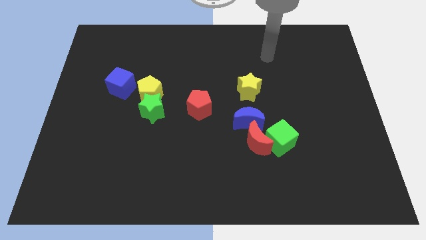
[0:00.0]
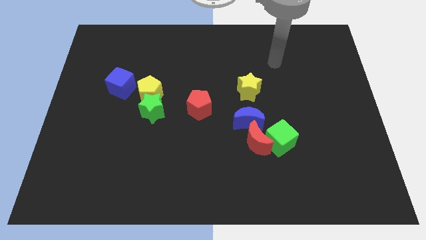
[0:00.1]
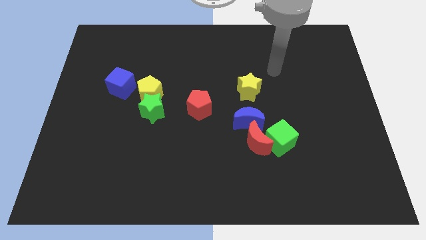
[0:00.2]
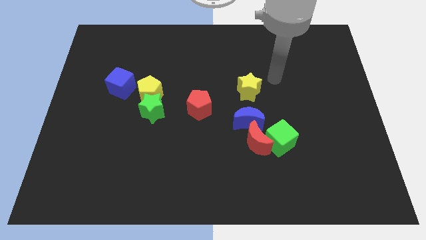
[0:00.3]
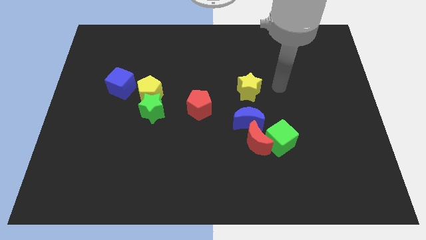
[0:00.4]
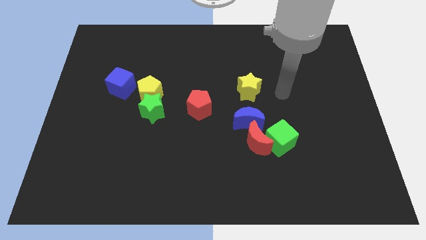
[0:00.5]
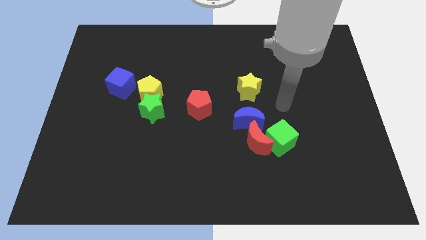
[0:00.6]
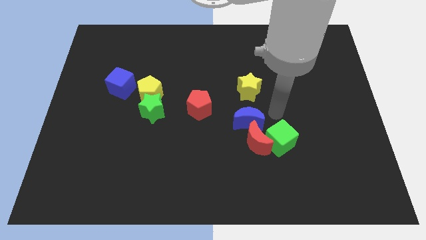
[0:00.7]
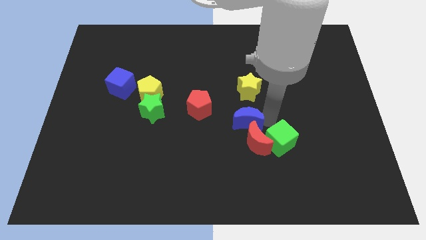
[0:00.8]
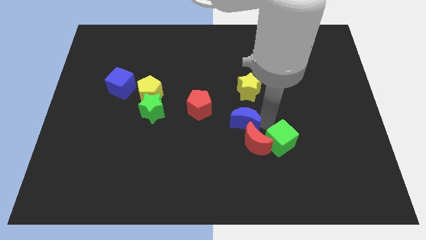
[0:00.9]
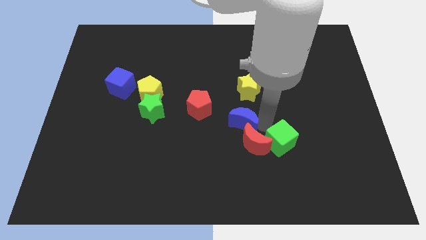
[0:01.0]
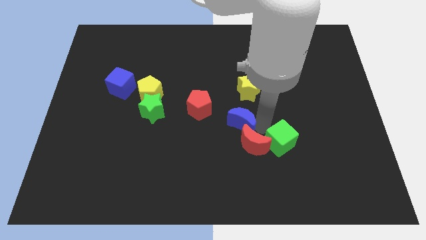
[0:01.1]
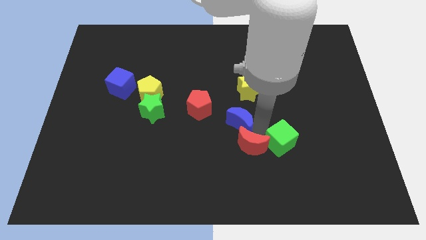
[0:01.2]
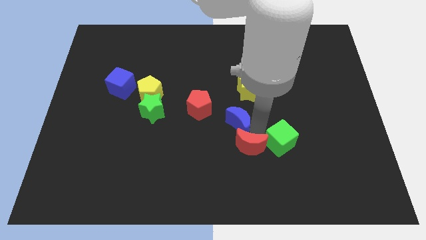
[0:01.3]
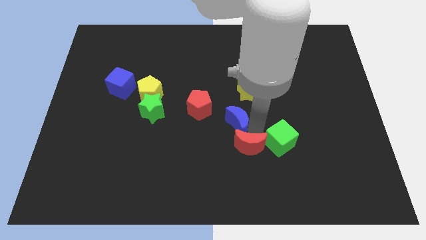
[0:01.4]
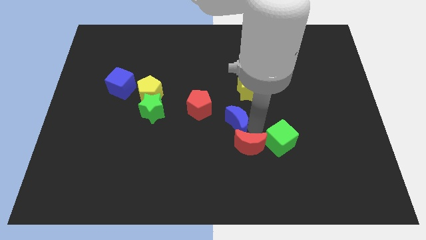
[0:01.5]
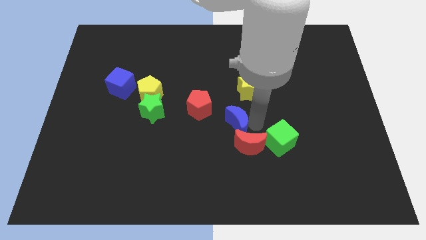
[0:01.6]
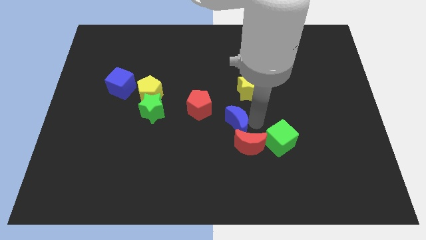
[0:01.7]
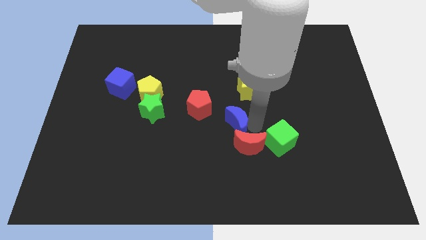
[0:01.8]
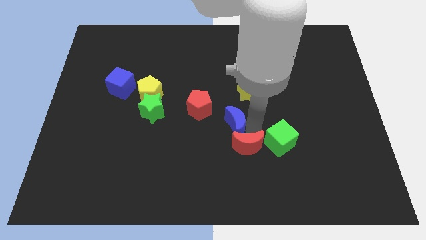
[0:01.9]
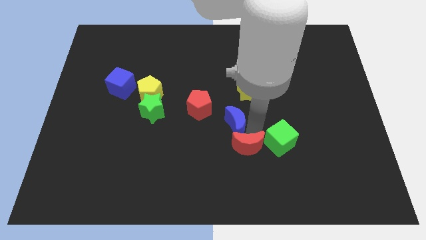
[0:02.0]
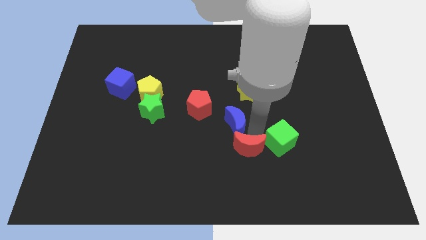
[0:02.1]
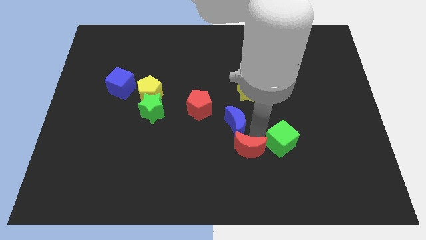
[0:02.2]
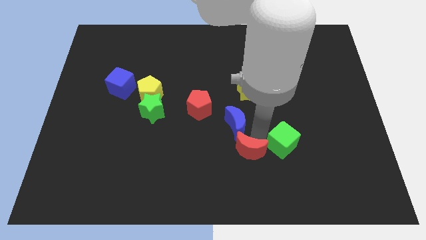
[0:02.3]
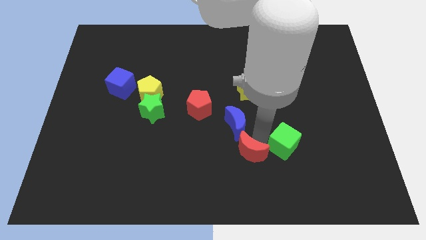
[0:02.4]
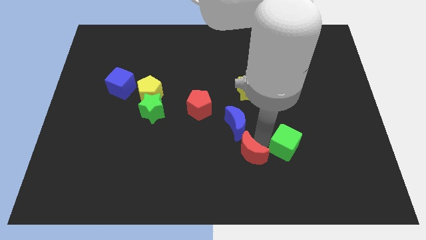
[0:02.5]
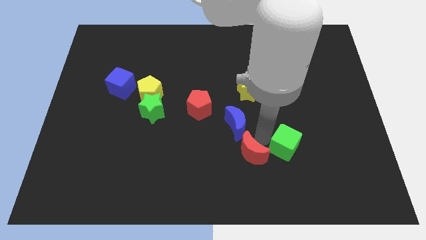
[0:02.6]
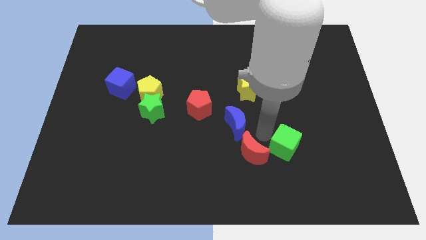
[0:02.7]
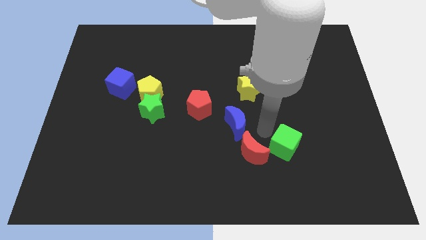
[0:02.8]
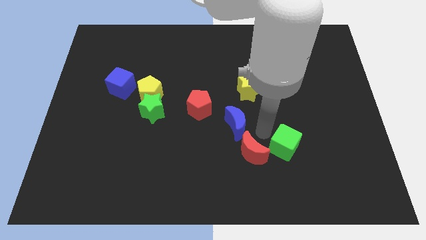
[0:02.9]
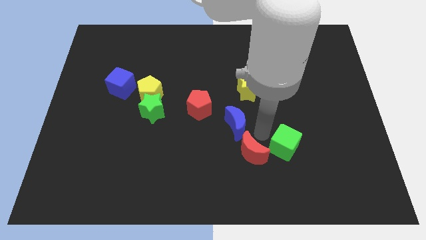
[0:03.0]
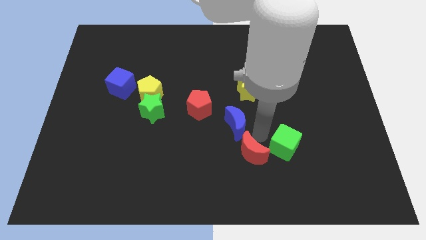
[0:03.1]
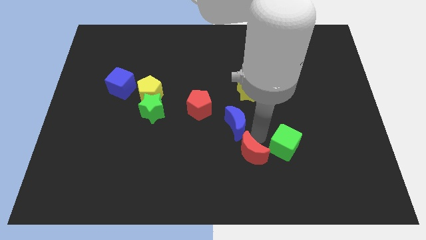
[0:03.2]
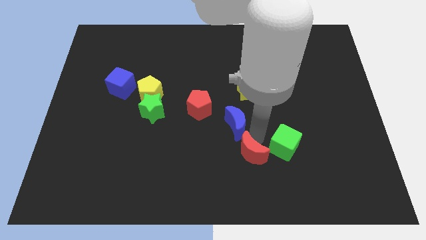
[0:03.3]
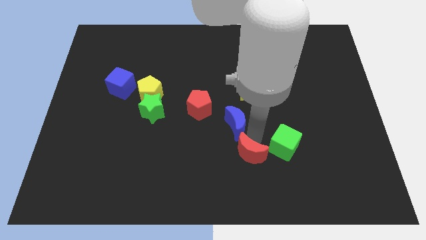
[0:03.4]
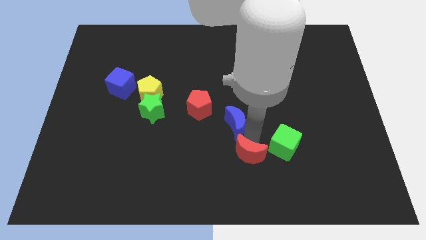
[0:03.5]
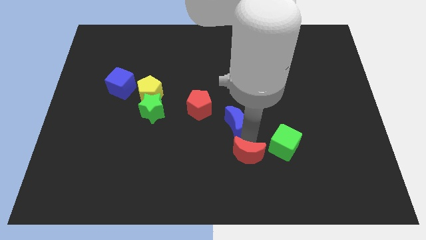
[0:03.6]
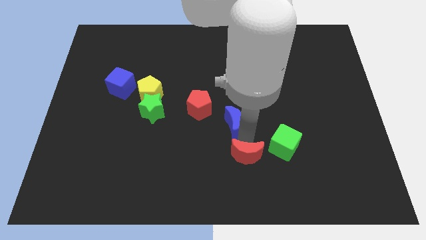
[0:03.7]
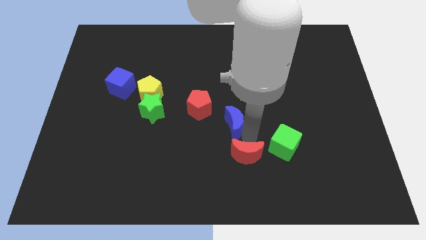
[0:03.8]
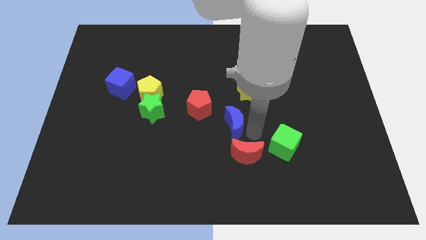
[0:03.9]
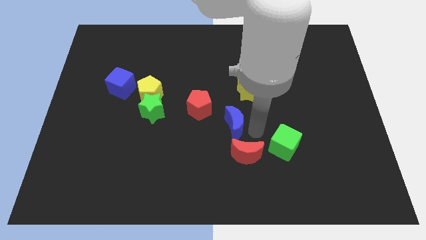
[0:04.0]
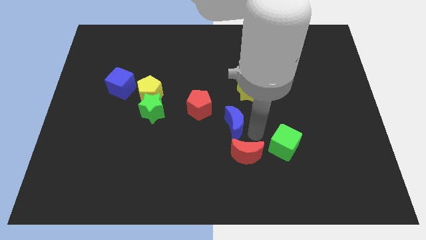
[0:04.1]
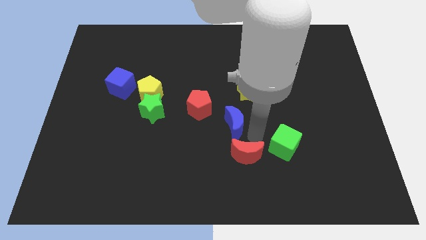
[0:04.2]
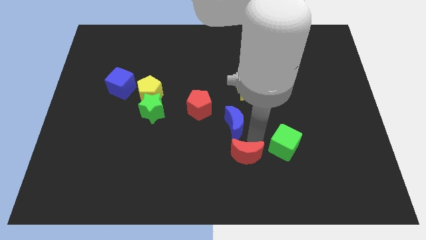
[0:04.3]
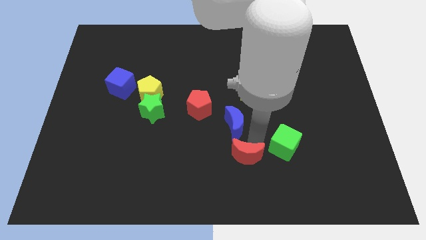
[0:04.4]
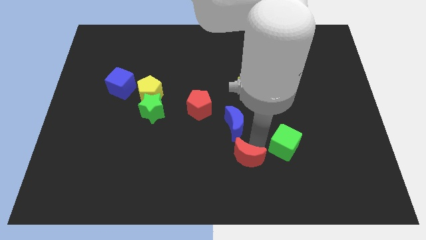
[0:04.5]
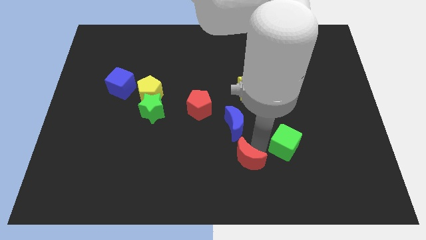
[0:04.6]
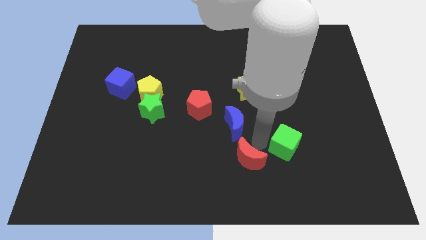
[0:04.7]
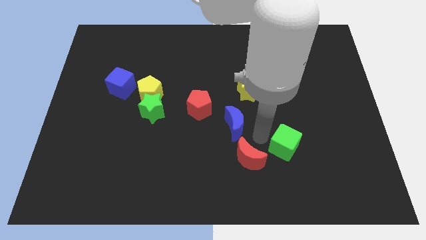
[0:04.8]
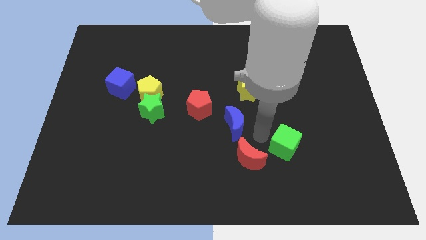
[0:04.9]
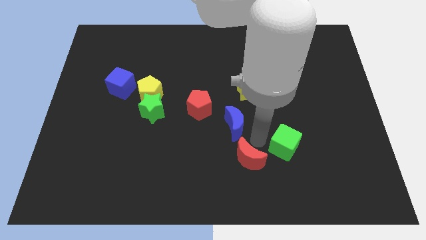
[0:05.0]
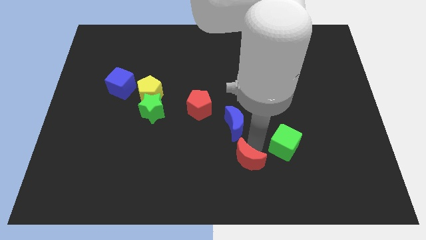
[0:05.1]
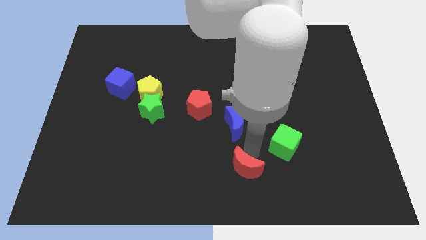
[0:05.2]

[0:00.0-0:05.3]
move the red moon to the bottom
